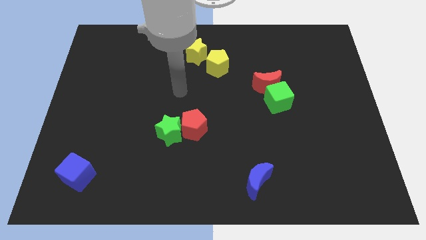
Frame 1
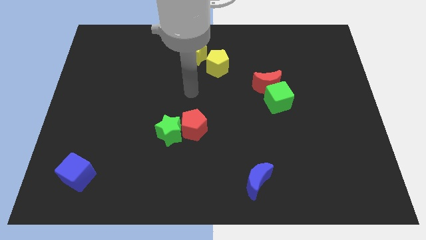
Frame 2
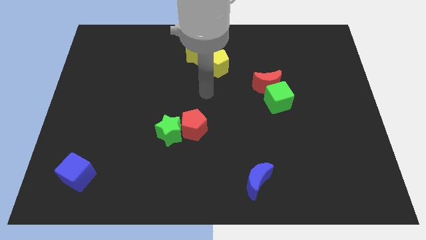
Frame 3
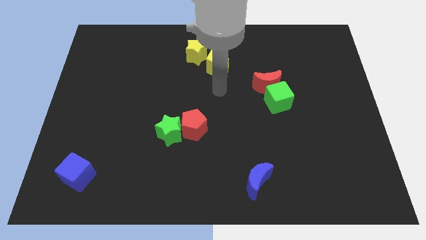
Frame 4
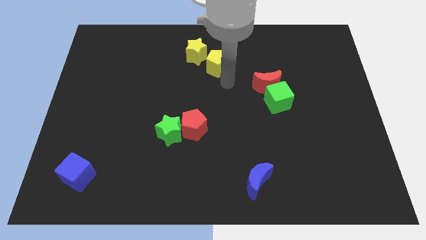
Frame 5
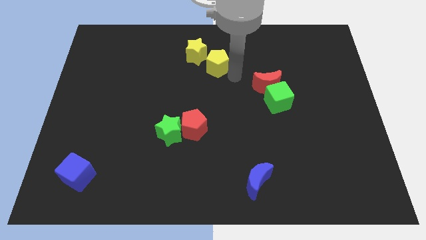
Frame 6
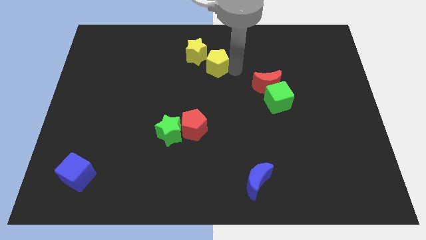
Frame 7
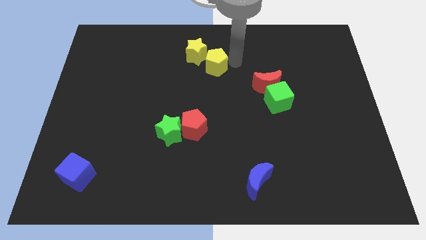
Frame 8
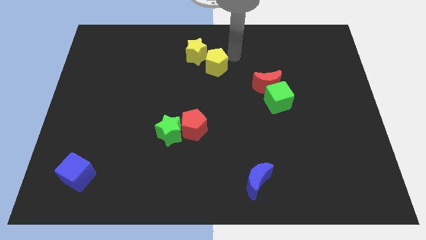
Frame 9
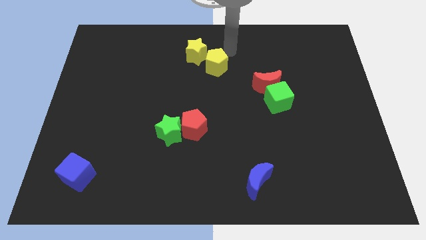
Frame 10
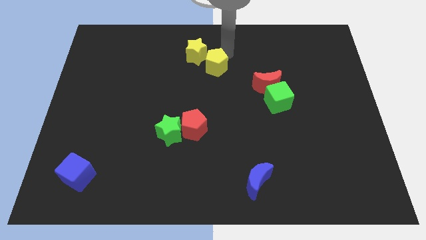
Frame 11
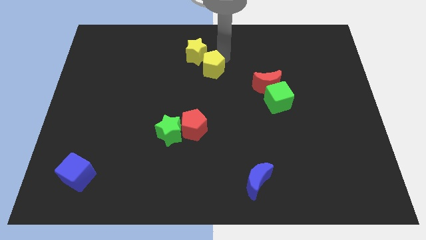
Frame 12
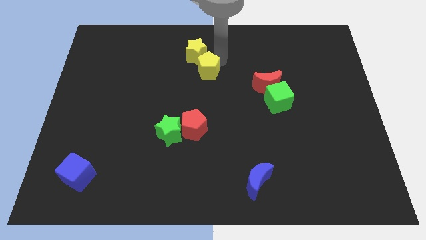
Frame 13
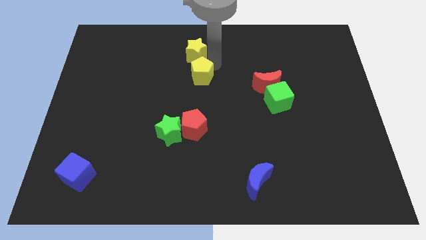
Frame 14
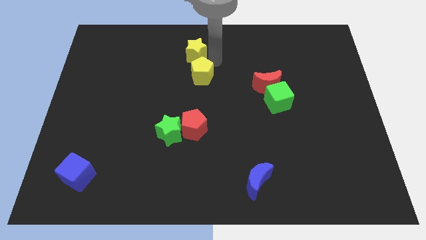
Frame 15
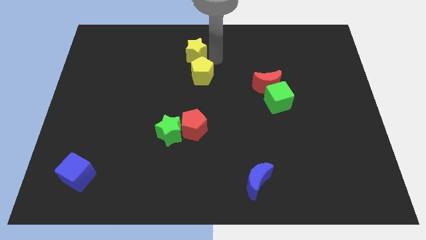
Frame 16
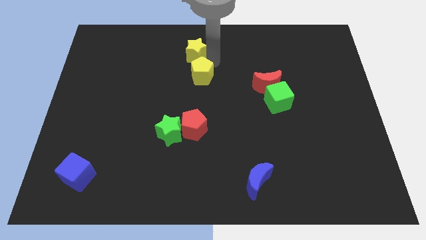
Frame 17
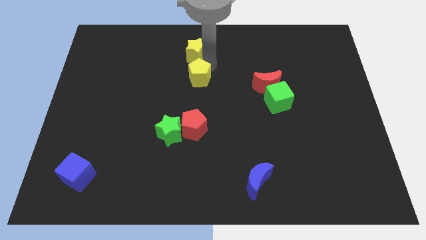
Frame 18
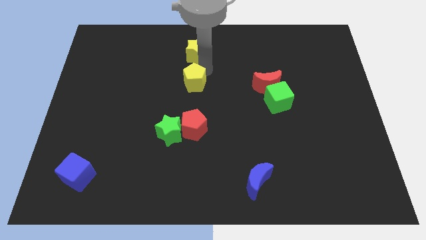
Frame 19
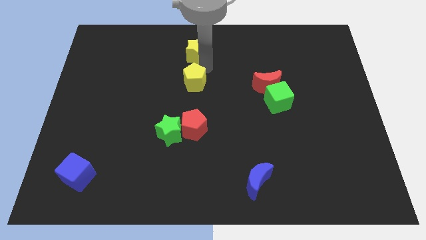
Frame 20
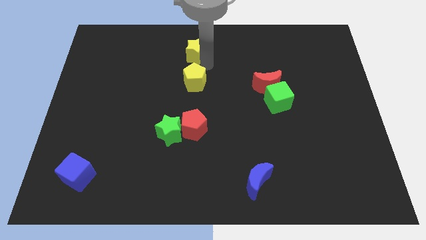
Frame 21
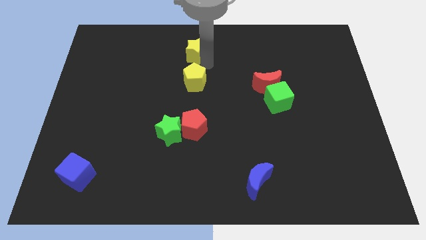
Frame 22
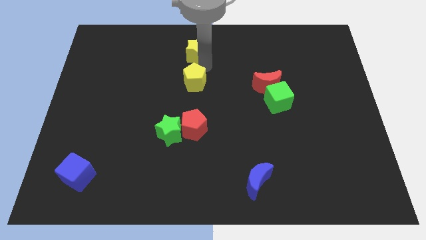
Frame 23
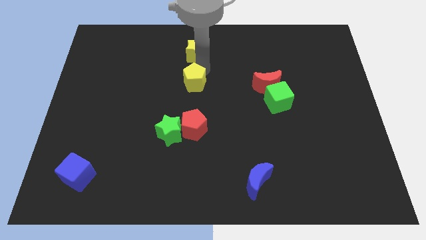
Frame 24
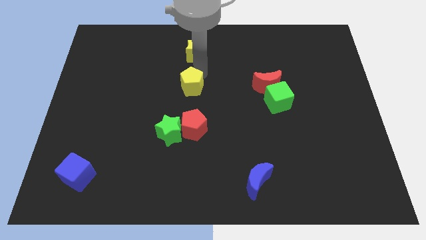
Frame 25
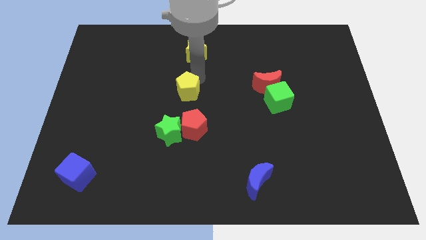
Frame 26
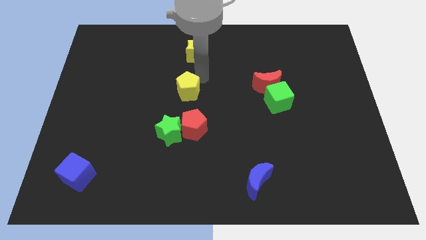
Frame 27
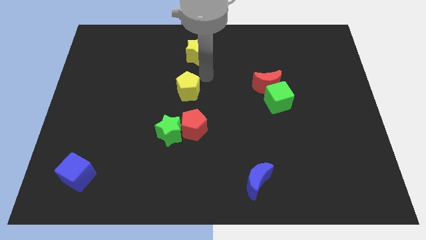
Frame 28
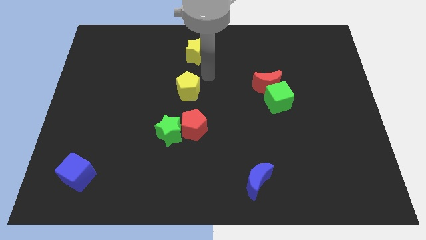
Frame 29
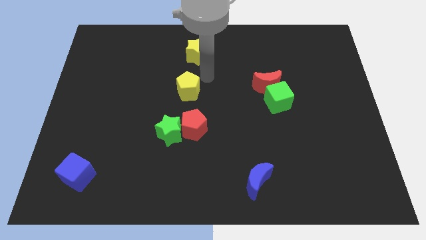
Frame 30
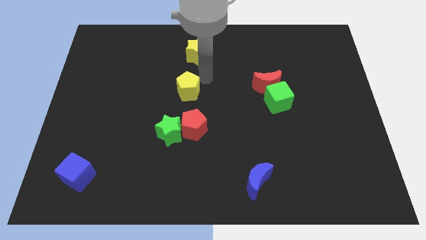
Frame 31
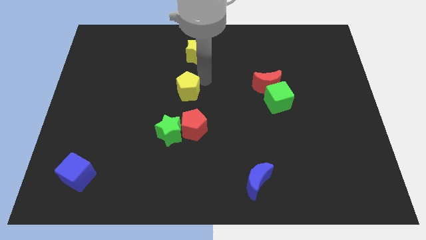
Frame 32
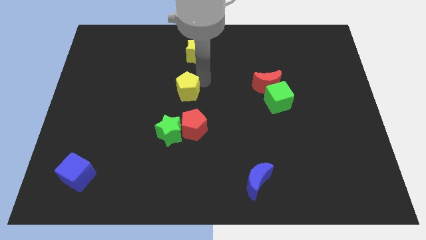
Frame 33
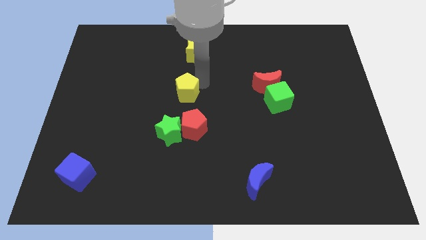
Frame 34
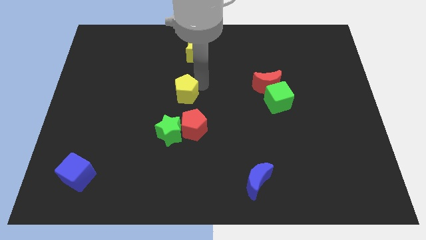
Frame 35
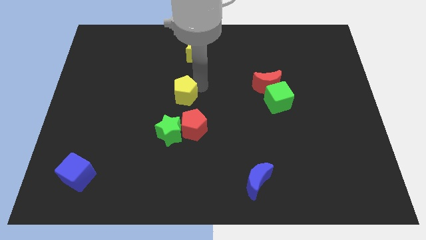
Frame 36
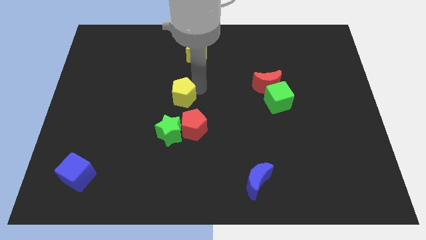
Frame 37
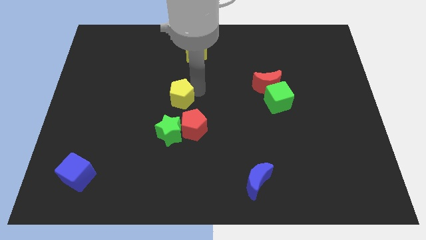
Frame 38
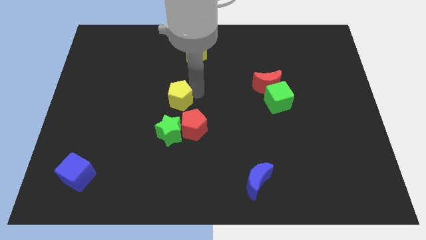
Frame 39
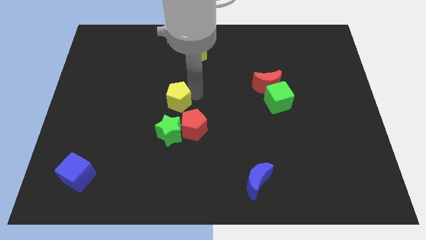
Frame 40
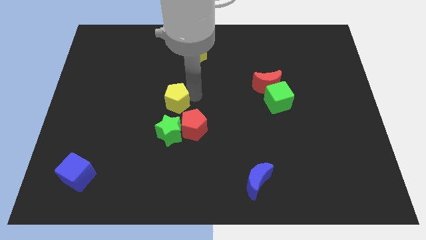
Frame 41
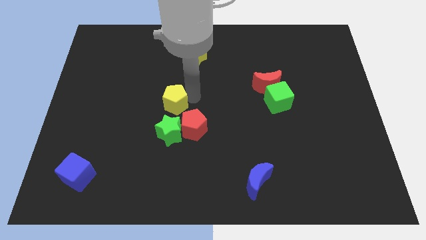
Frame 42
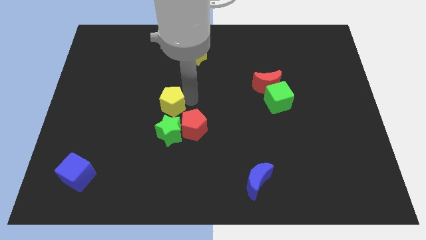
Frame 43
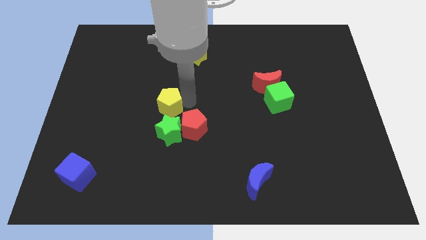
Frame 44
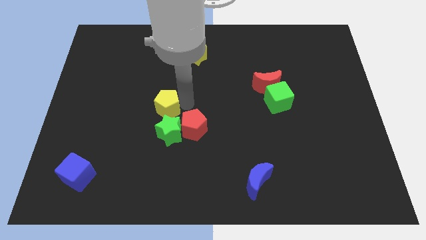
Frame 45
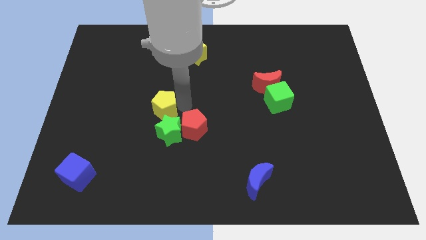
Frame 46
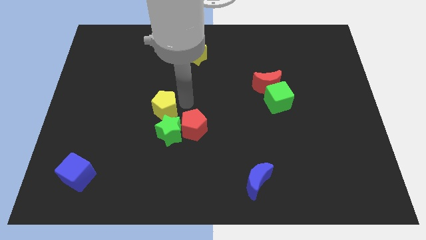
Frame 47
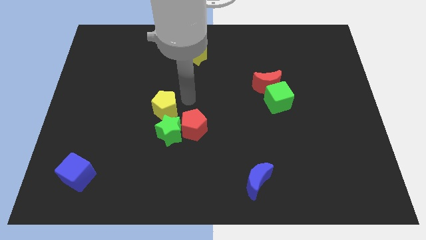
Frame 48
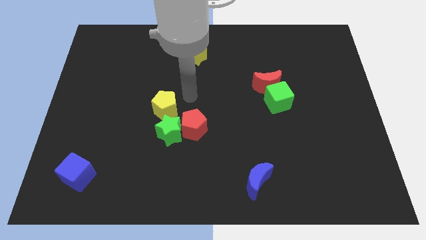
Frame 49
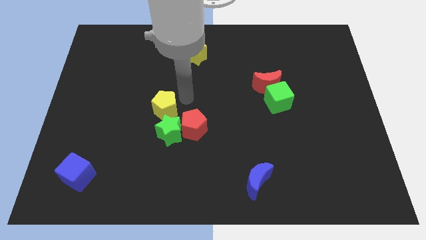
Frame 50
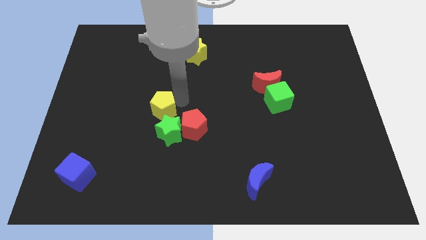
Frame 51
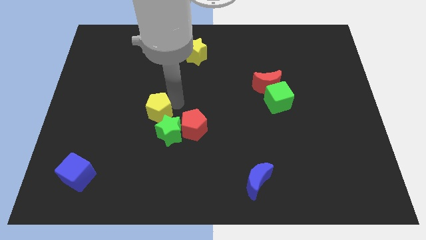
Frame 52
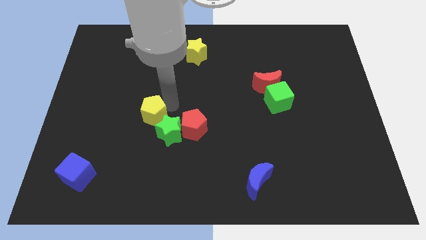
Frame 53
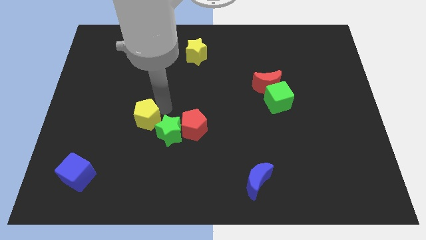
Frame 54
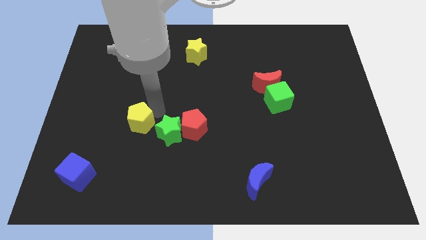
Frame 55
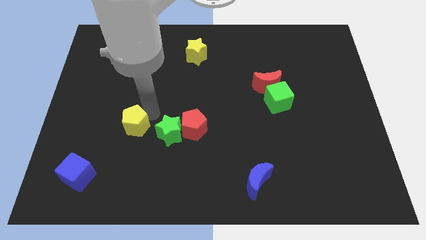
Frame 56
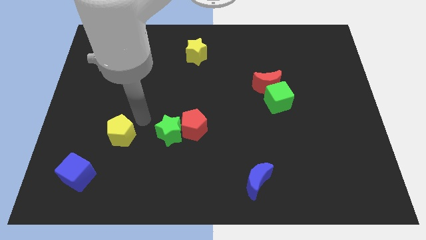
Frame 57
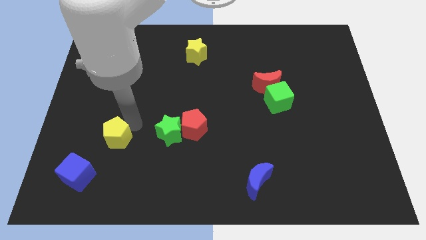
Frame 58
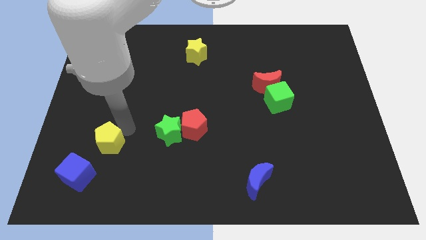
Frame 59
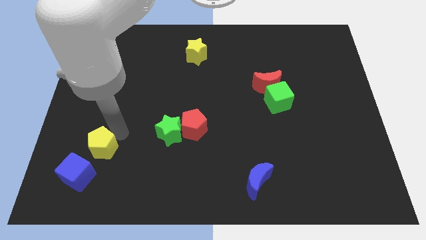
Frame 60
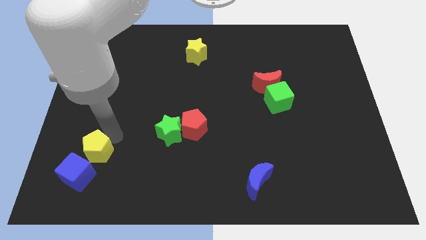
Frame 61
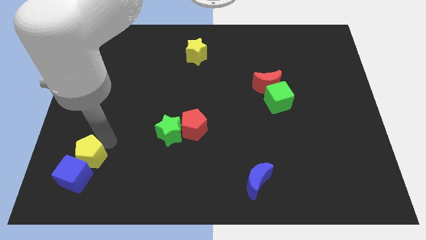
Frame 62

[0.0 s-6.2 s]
put the yellow pentagon close to the blue cube
